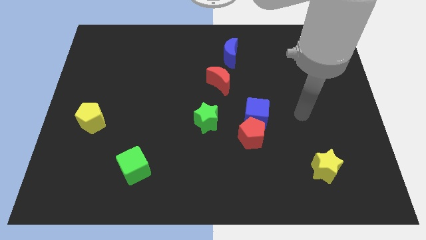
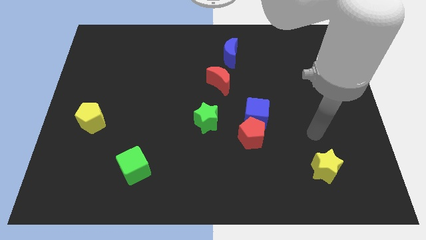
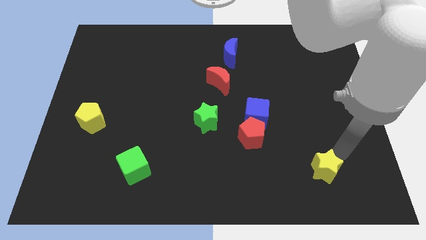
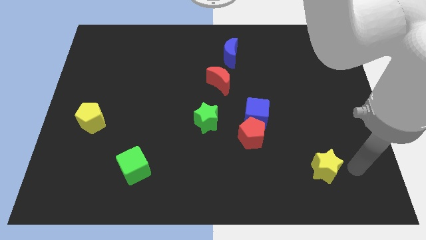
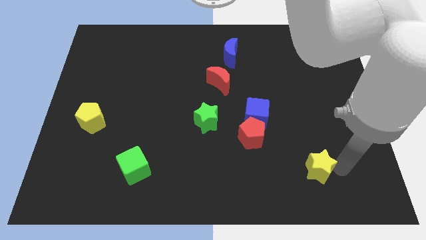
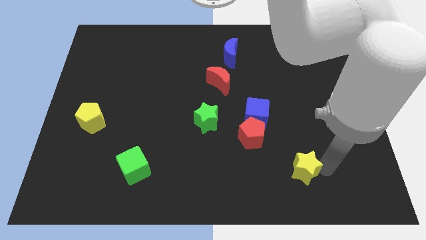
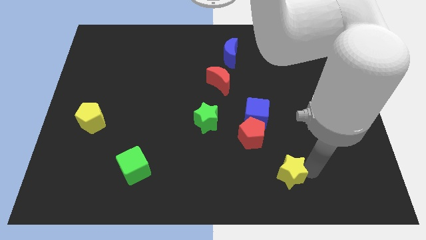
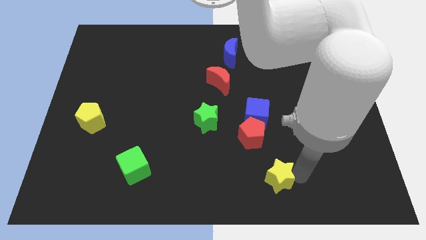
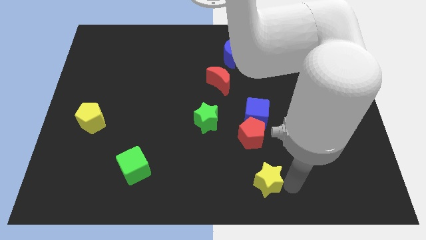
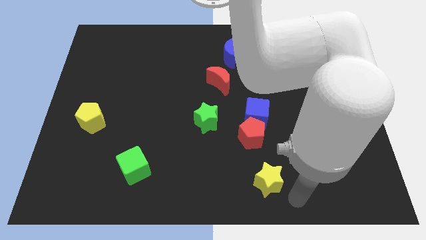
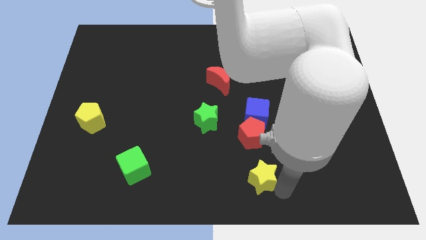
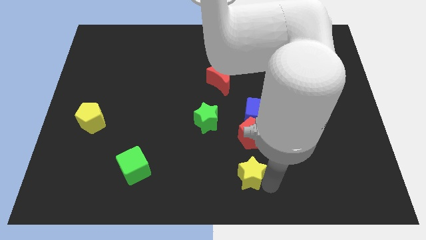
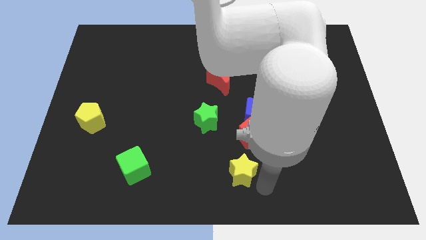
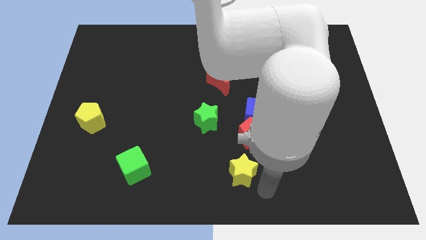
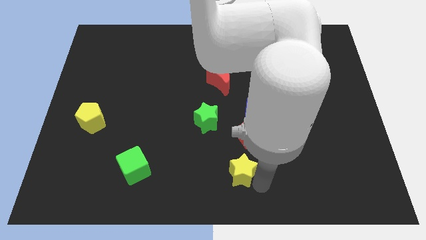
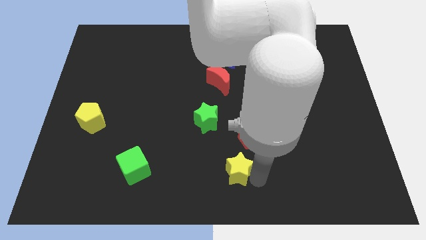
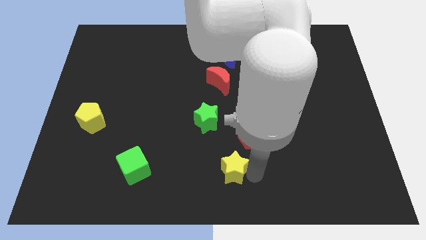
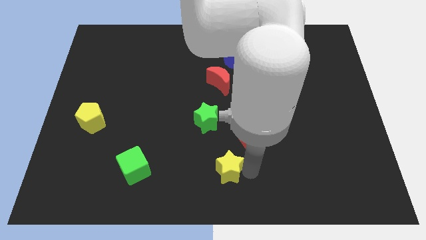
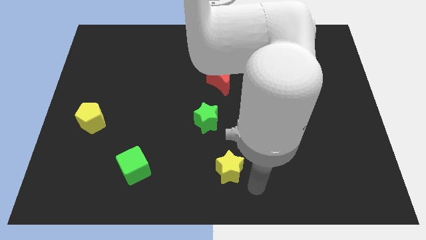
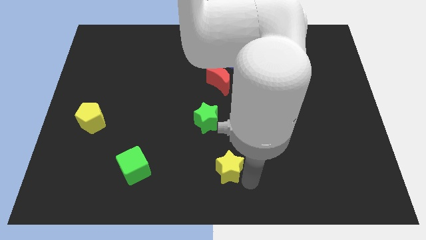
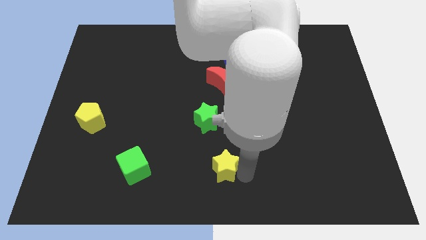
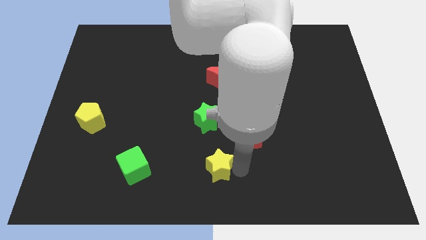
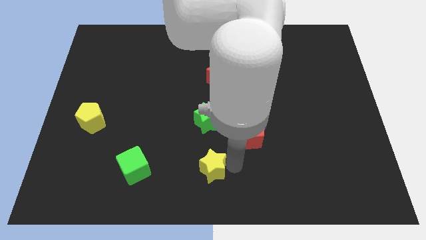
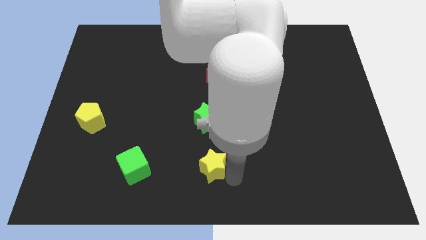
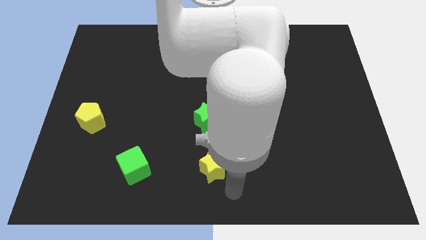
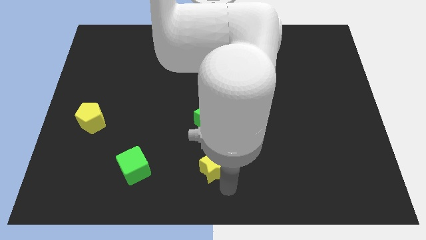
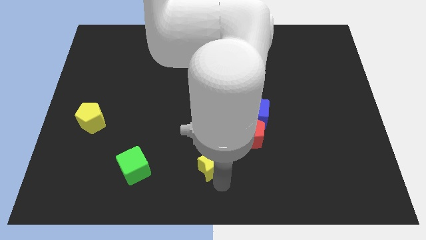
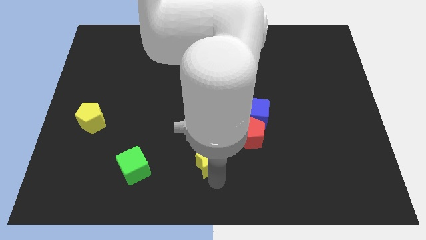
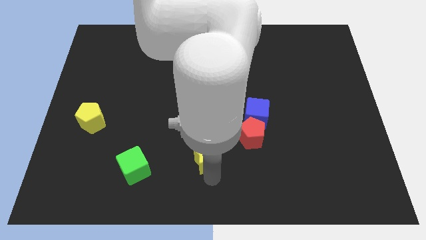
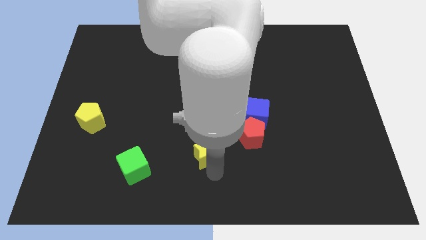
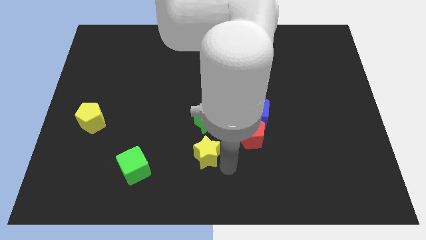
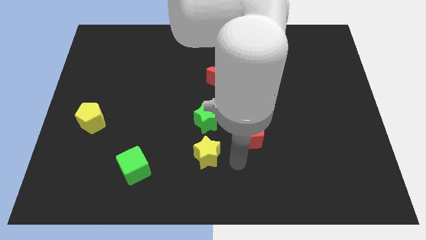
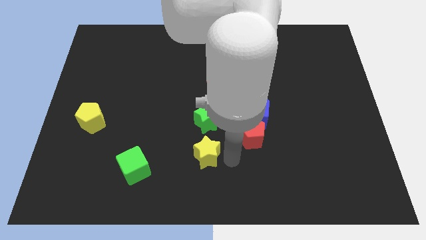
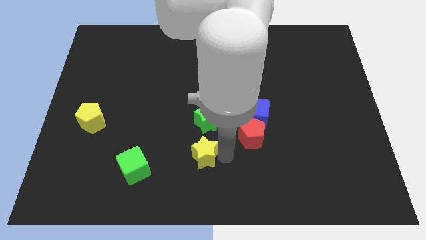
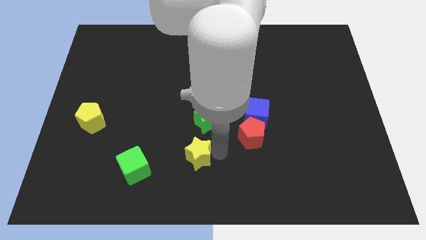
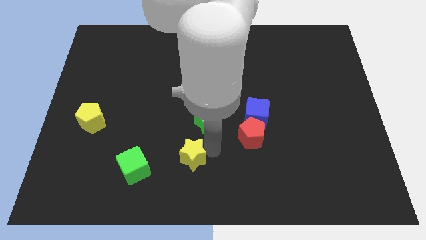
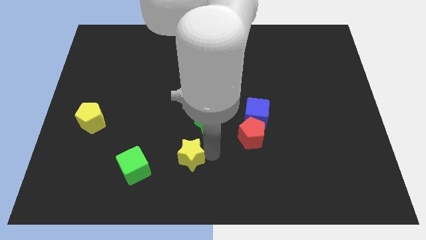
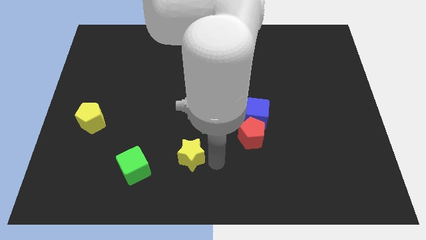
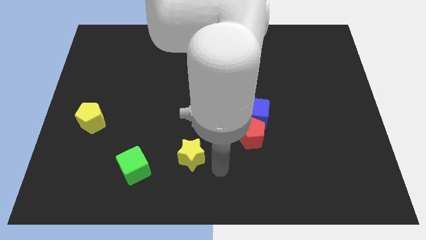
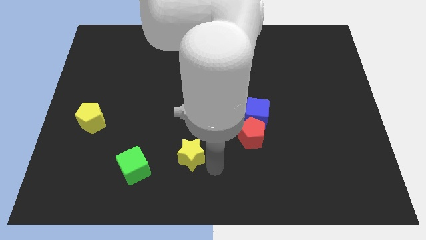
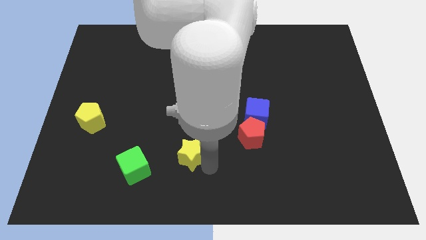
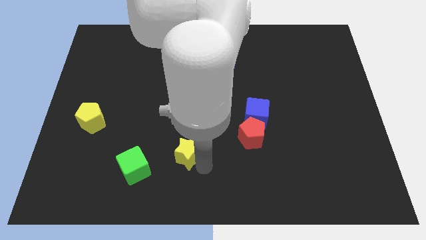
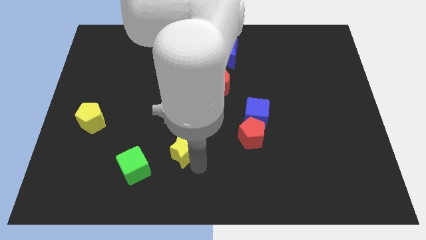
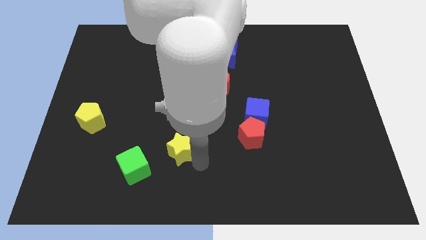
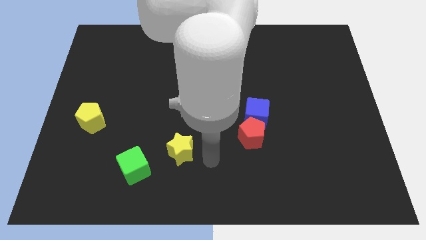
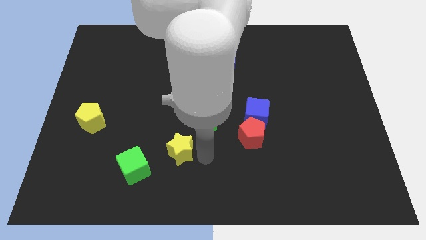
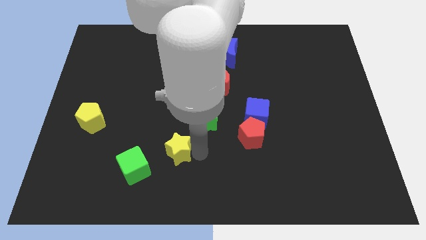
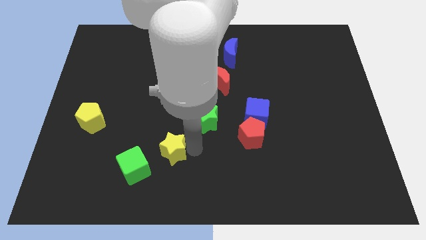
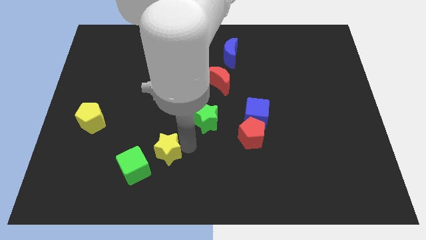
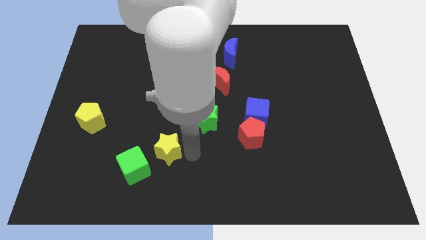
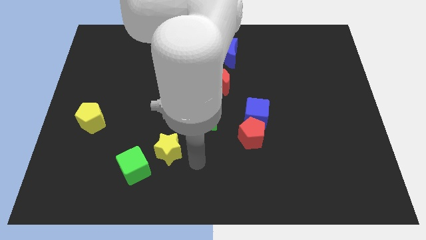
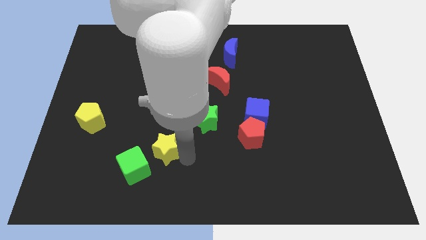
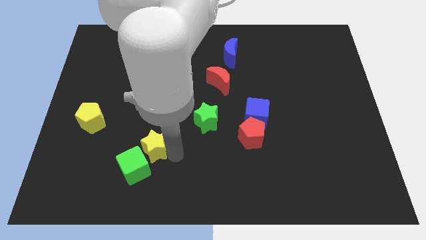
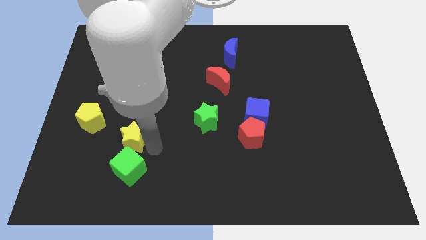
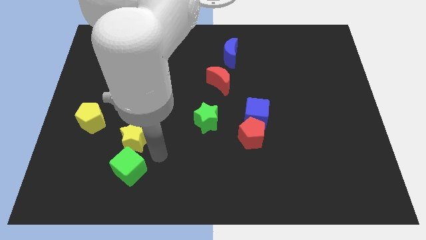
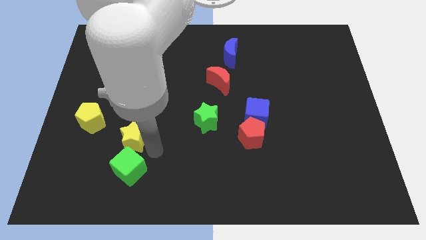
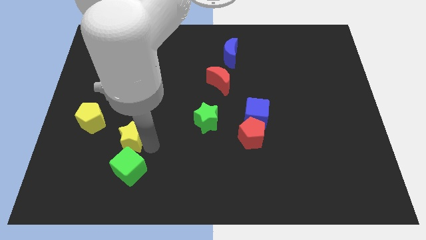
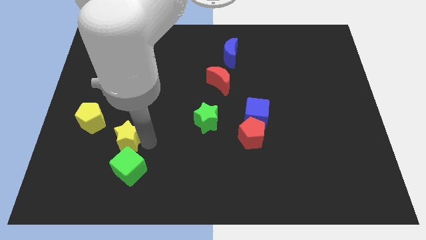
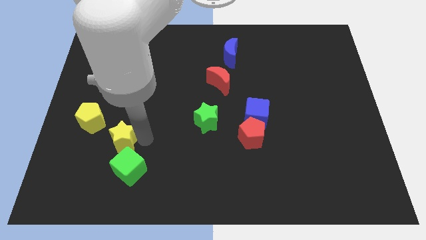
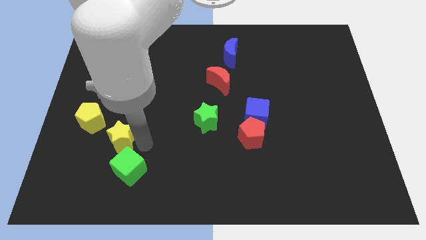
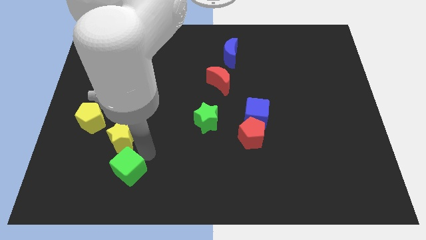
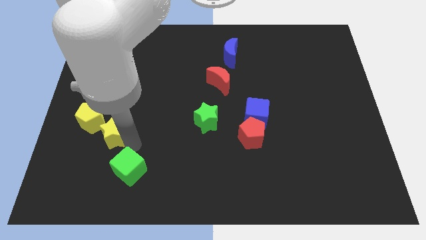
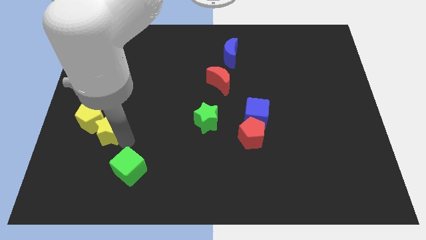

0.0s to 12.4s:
slide the yellow star to the yellow pentagon
